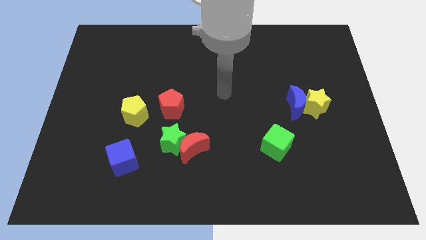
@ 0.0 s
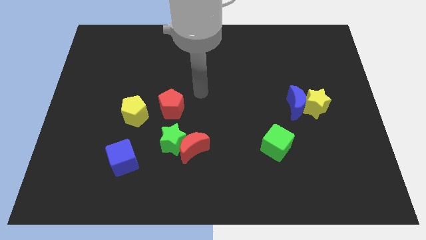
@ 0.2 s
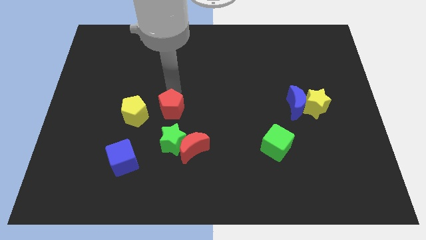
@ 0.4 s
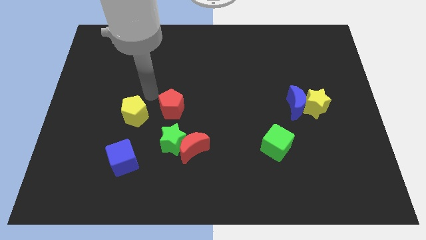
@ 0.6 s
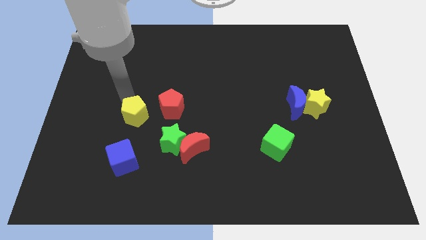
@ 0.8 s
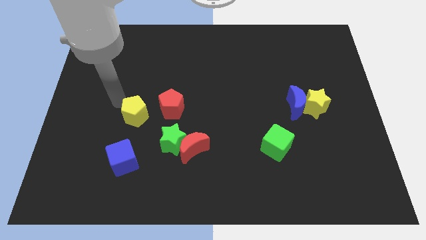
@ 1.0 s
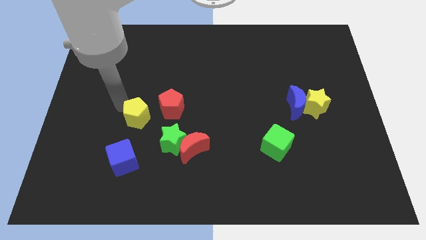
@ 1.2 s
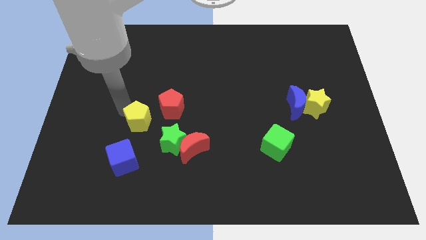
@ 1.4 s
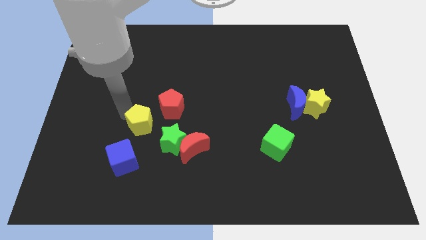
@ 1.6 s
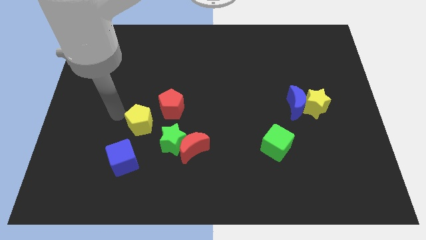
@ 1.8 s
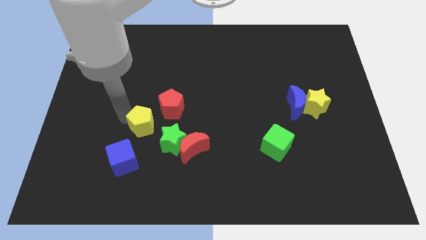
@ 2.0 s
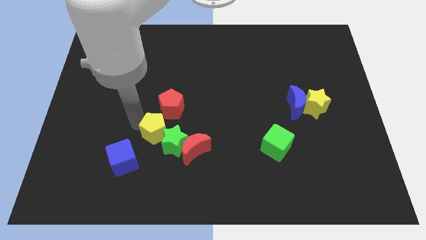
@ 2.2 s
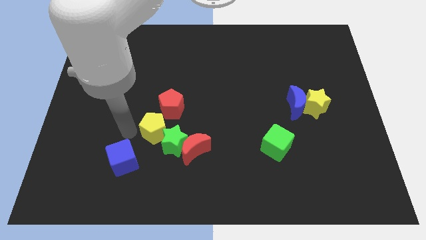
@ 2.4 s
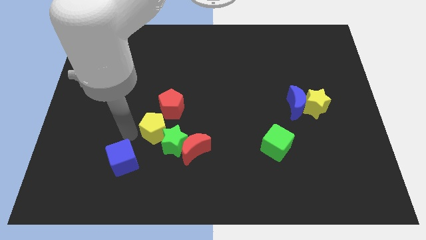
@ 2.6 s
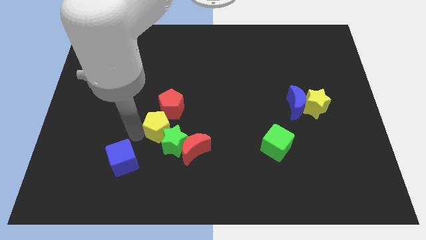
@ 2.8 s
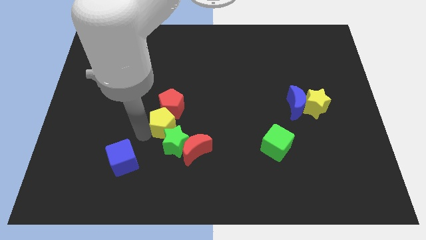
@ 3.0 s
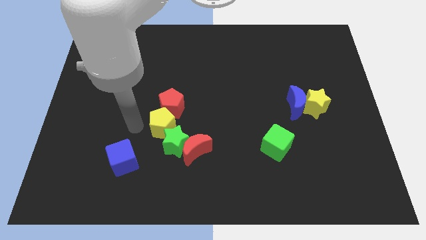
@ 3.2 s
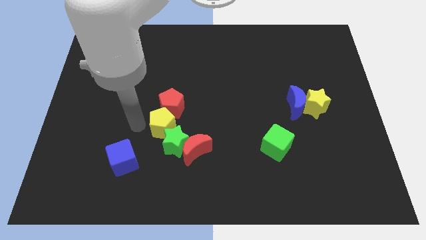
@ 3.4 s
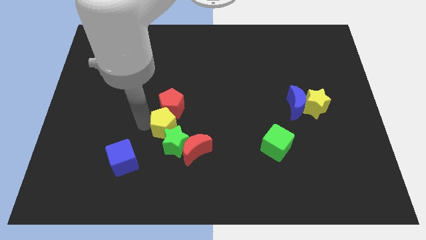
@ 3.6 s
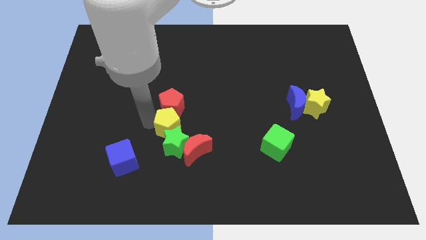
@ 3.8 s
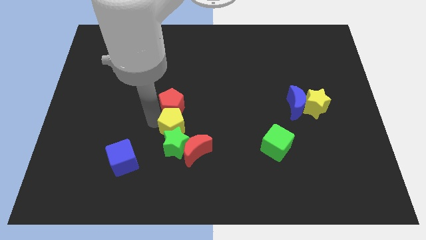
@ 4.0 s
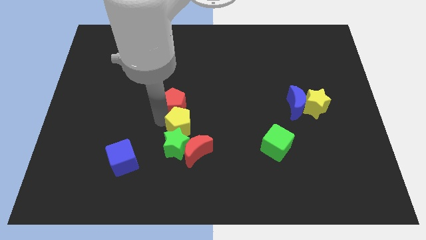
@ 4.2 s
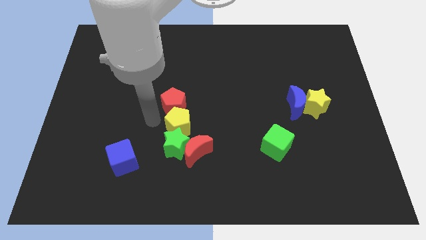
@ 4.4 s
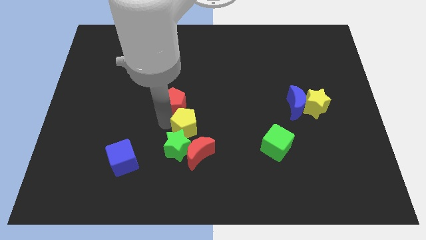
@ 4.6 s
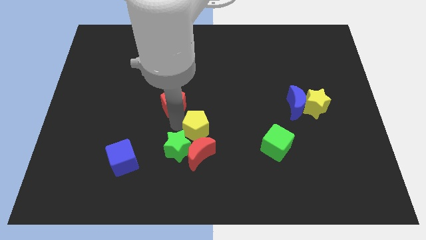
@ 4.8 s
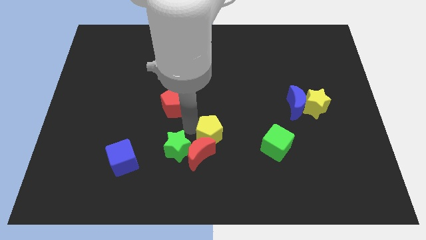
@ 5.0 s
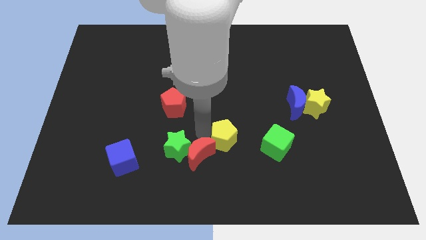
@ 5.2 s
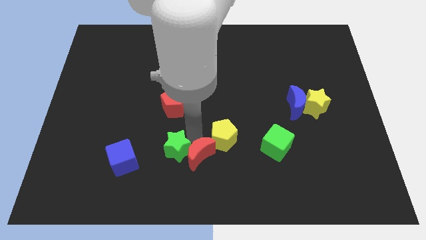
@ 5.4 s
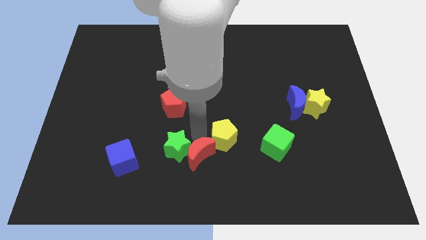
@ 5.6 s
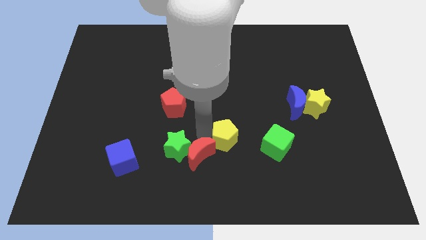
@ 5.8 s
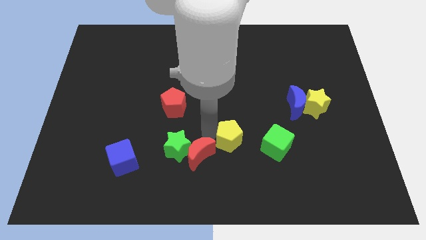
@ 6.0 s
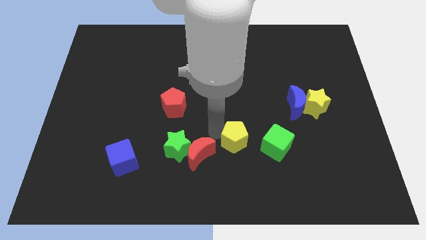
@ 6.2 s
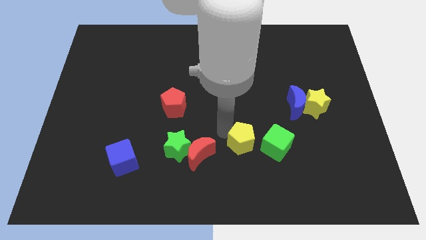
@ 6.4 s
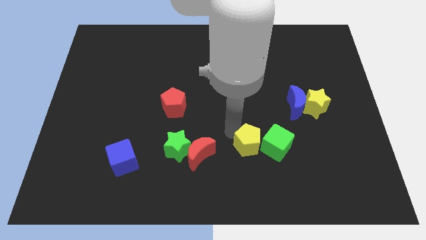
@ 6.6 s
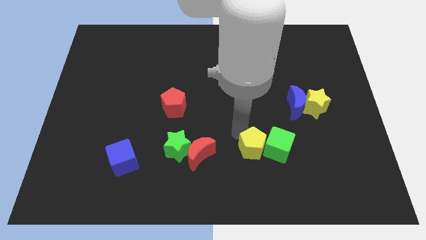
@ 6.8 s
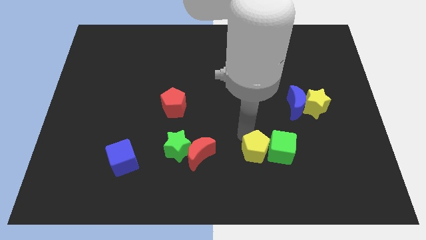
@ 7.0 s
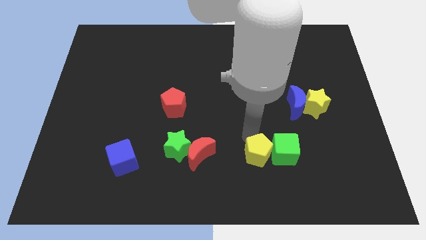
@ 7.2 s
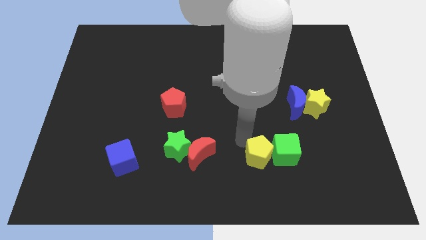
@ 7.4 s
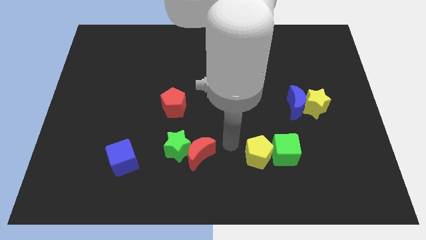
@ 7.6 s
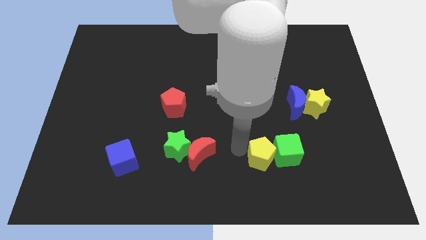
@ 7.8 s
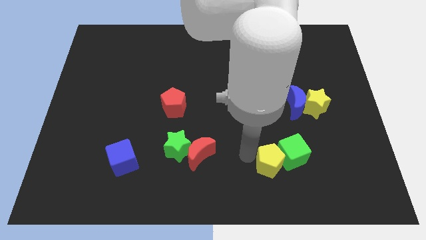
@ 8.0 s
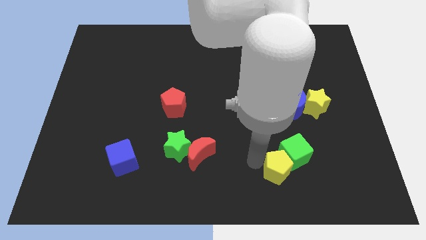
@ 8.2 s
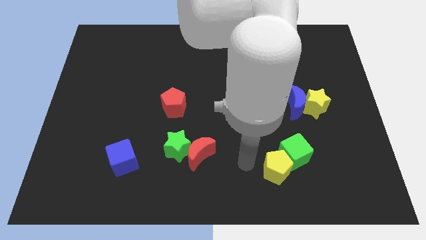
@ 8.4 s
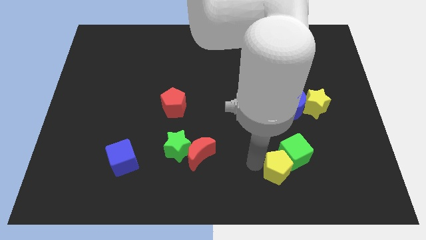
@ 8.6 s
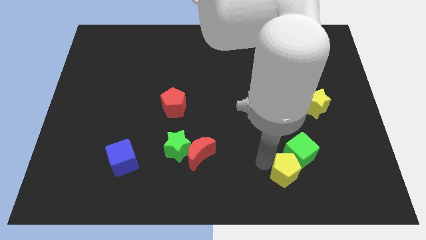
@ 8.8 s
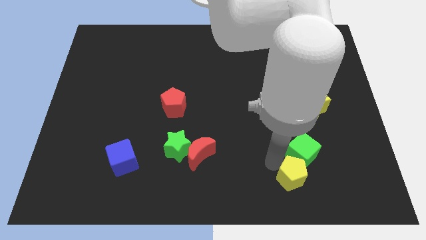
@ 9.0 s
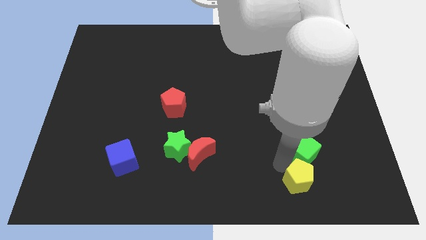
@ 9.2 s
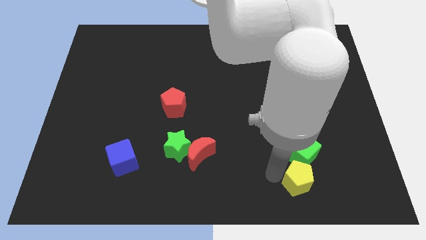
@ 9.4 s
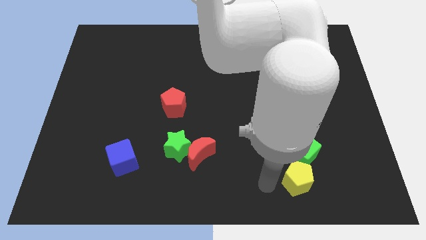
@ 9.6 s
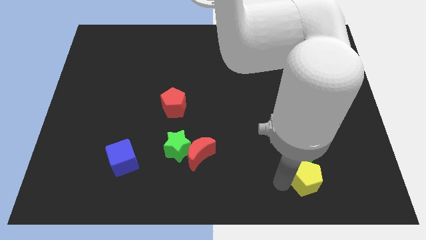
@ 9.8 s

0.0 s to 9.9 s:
push the yellow pentagon to the bottom right side of the green cube

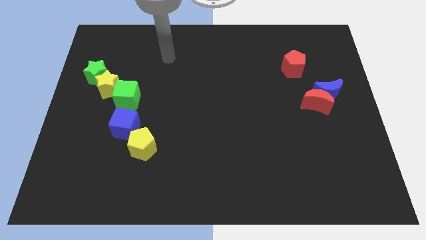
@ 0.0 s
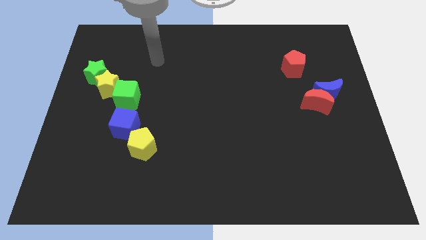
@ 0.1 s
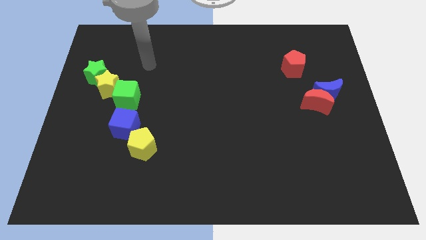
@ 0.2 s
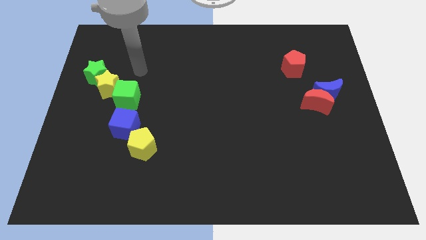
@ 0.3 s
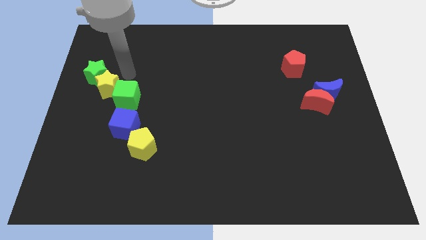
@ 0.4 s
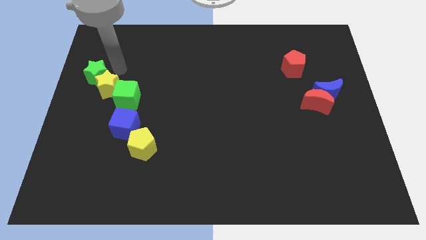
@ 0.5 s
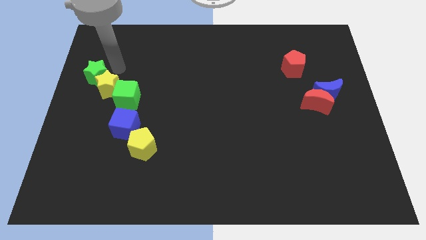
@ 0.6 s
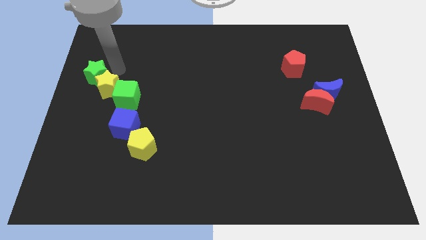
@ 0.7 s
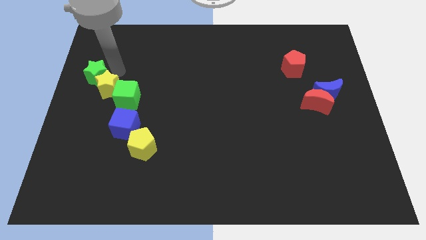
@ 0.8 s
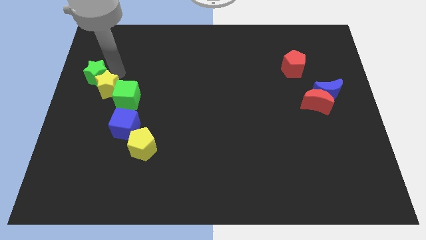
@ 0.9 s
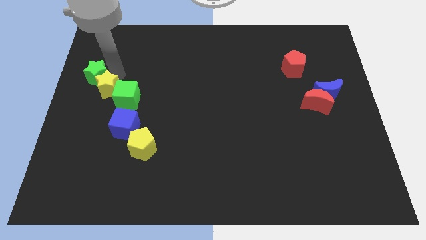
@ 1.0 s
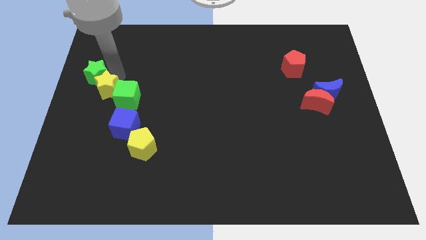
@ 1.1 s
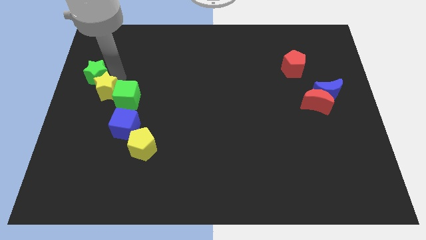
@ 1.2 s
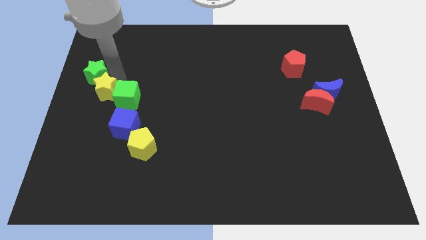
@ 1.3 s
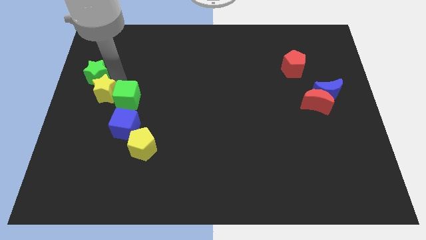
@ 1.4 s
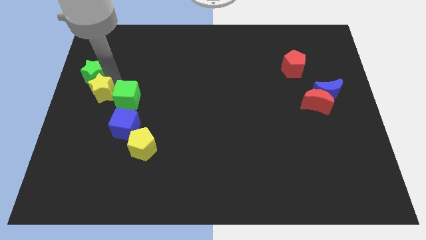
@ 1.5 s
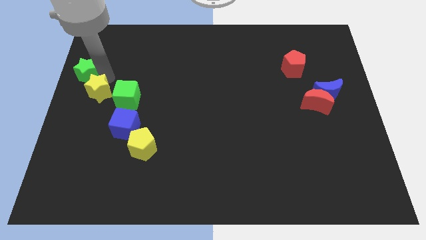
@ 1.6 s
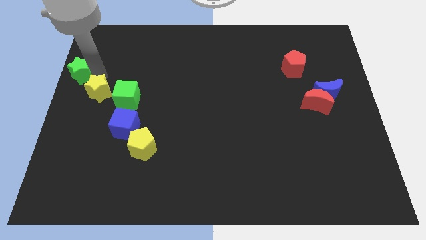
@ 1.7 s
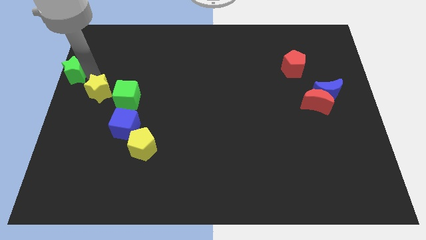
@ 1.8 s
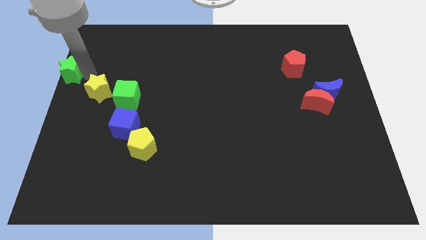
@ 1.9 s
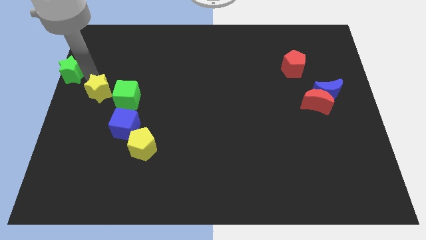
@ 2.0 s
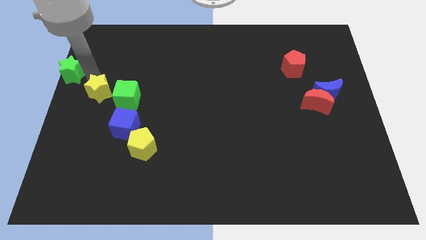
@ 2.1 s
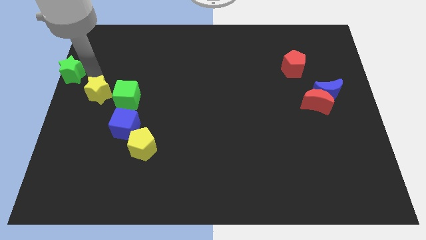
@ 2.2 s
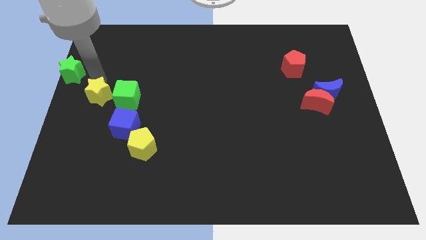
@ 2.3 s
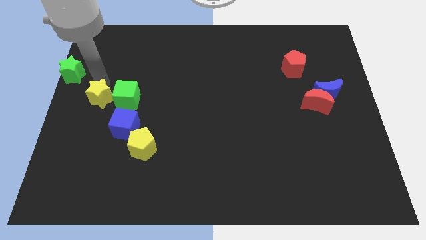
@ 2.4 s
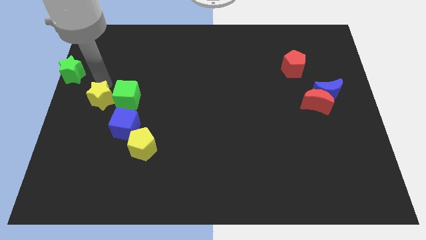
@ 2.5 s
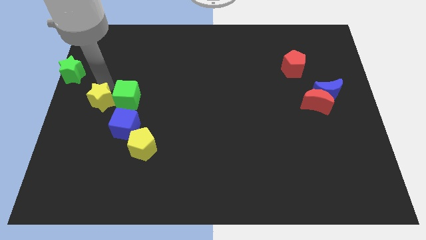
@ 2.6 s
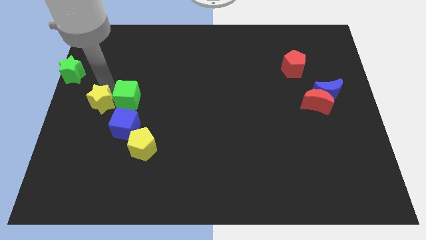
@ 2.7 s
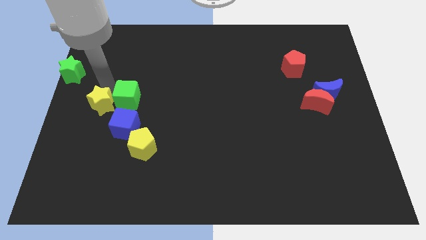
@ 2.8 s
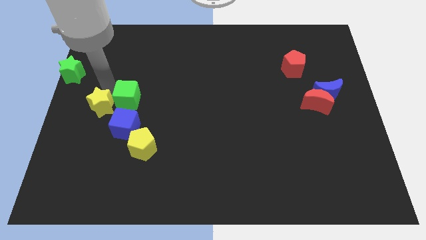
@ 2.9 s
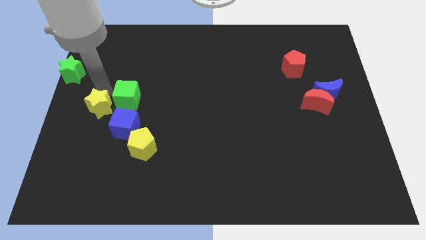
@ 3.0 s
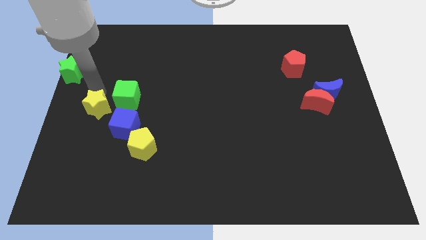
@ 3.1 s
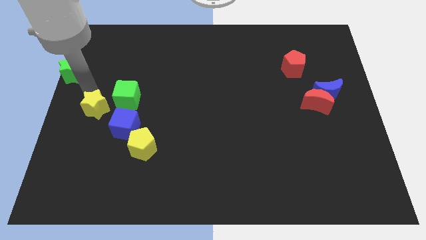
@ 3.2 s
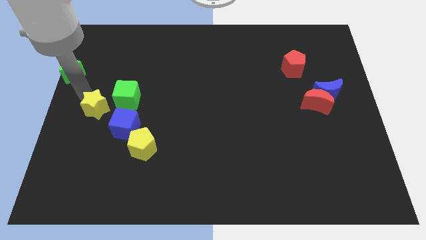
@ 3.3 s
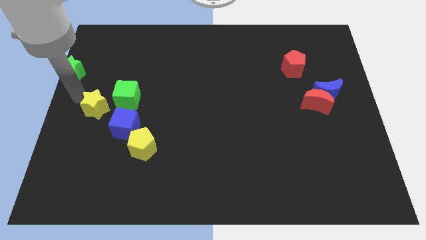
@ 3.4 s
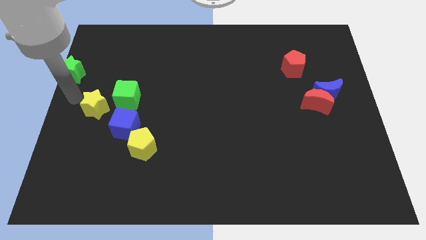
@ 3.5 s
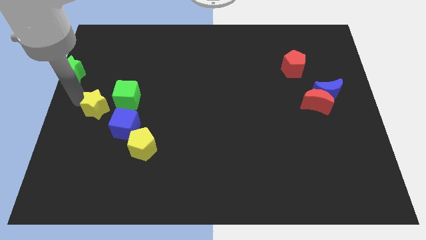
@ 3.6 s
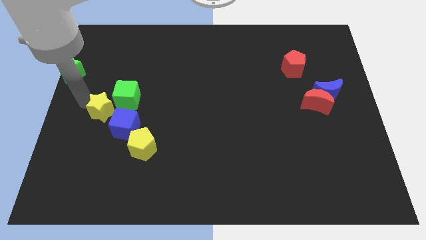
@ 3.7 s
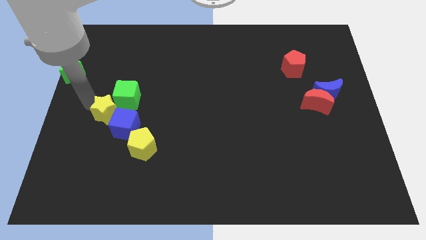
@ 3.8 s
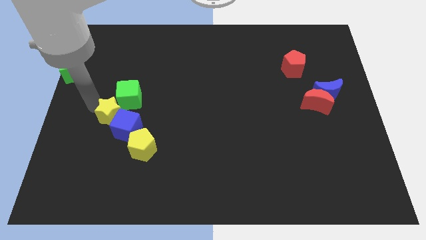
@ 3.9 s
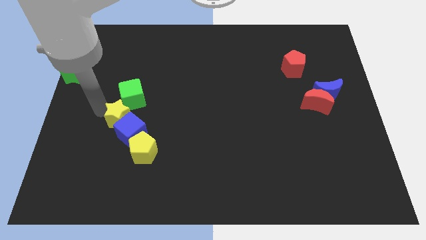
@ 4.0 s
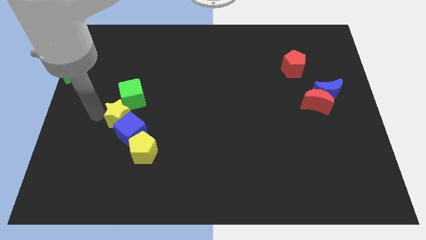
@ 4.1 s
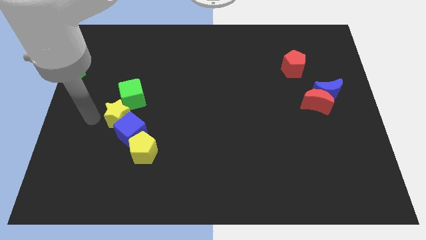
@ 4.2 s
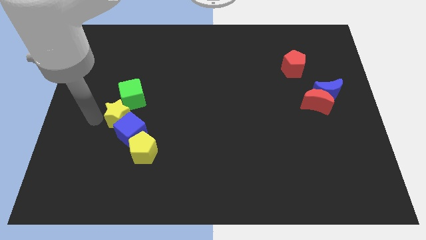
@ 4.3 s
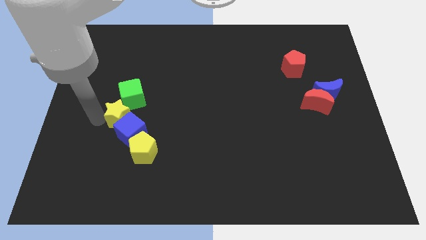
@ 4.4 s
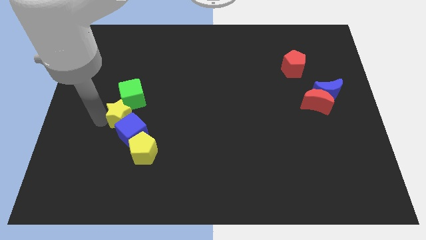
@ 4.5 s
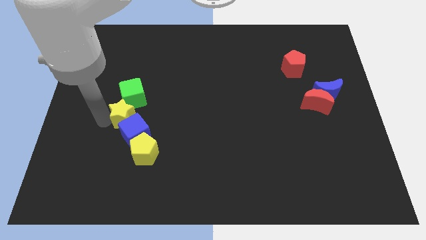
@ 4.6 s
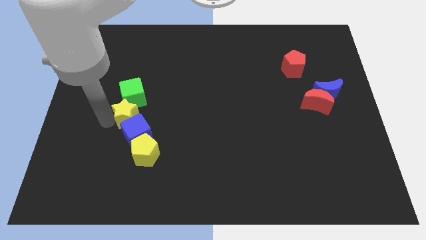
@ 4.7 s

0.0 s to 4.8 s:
move the yellow star diagonally down and to the right of the green cube